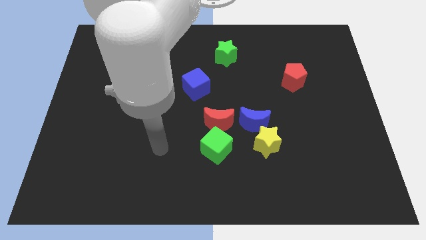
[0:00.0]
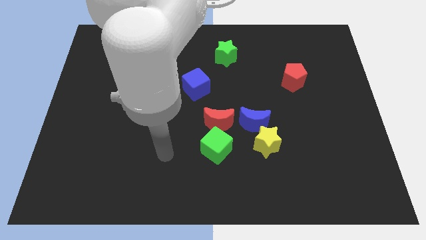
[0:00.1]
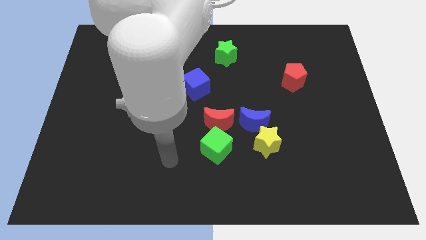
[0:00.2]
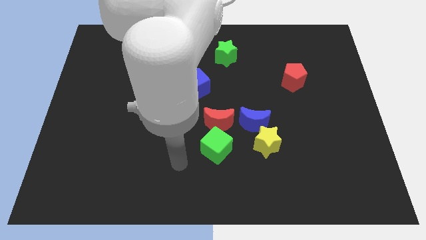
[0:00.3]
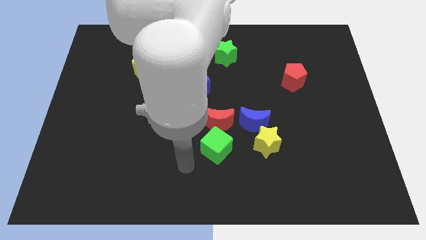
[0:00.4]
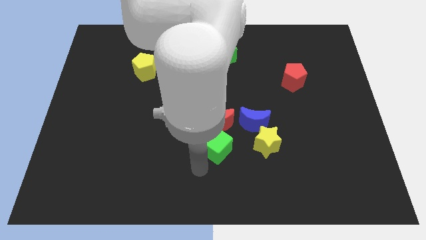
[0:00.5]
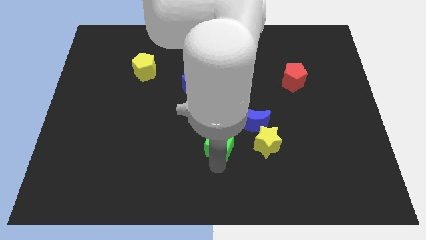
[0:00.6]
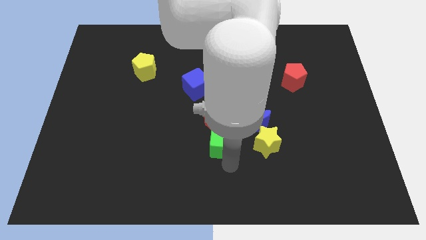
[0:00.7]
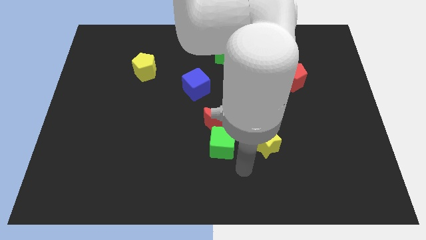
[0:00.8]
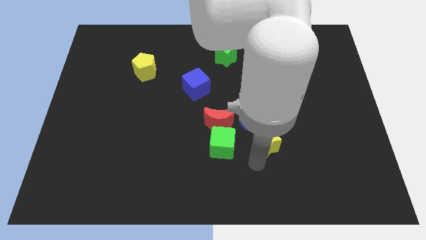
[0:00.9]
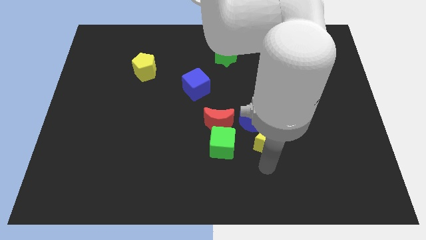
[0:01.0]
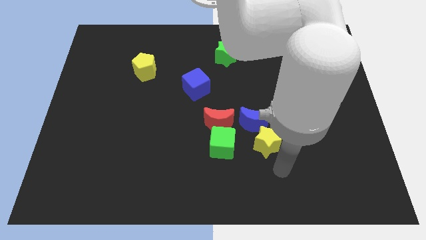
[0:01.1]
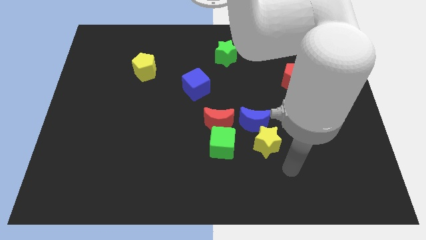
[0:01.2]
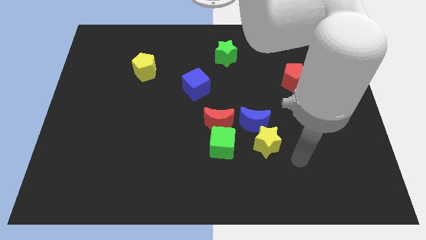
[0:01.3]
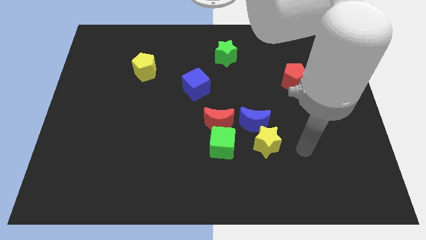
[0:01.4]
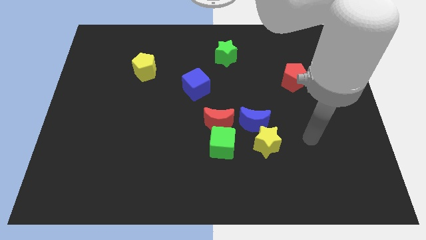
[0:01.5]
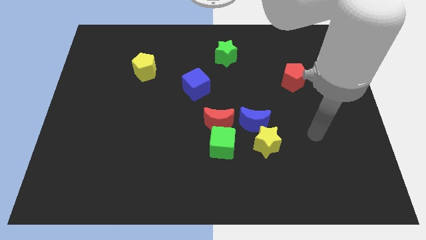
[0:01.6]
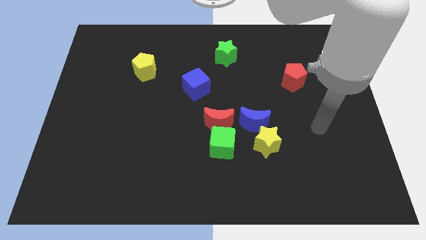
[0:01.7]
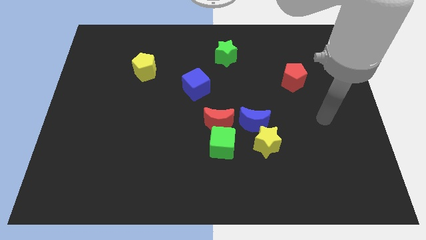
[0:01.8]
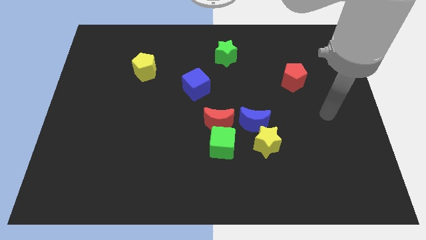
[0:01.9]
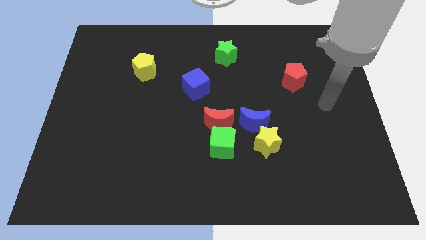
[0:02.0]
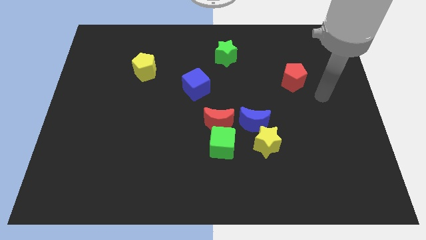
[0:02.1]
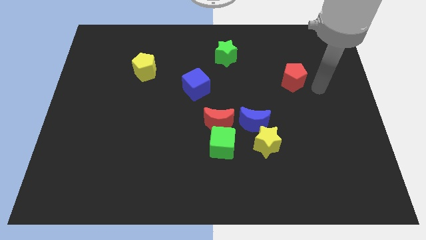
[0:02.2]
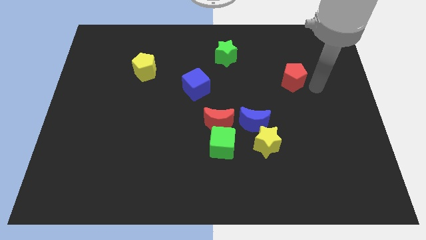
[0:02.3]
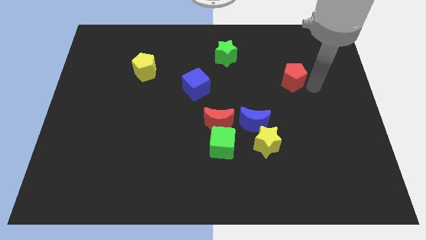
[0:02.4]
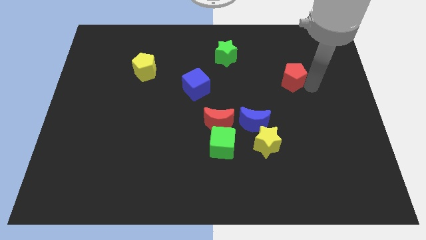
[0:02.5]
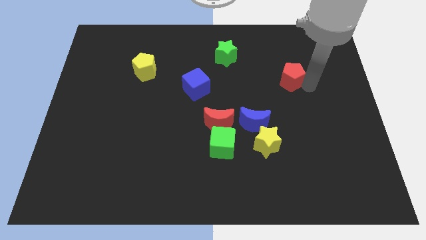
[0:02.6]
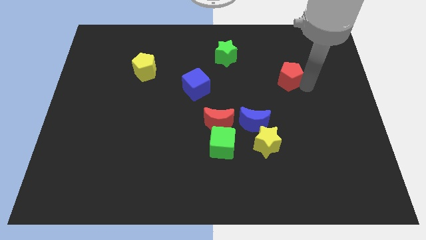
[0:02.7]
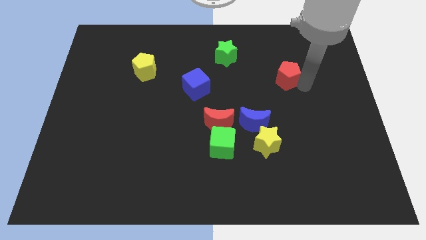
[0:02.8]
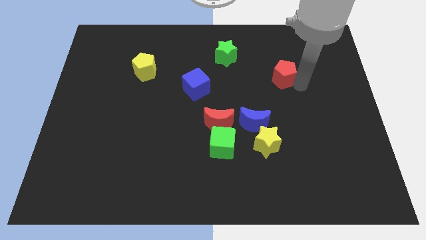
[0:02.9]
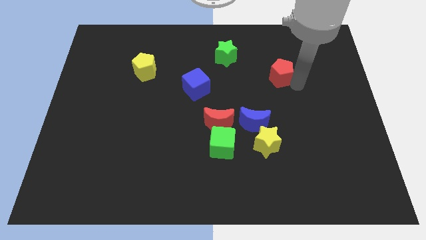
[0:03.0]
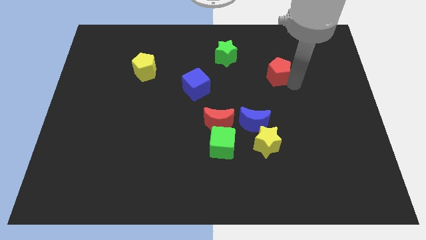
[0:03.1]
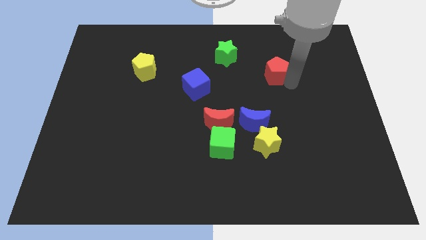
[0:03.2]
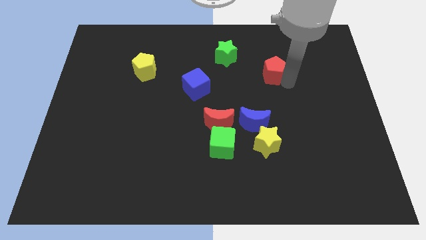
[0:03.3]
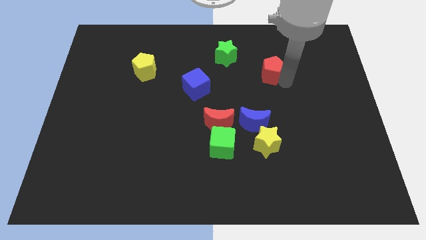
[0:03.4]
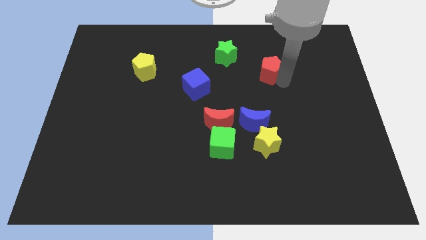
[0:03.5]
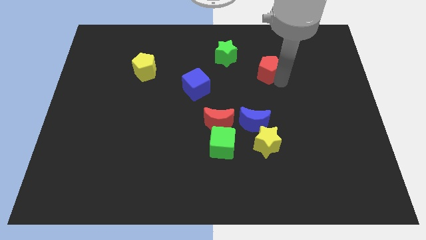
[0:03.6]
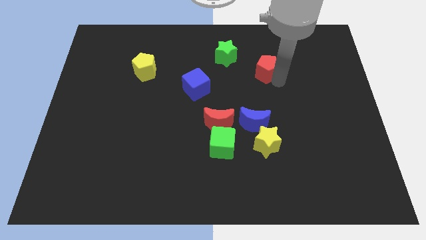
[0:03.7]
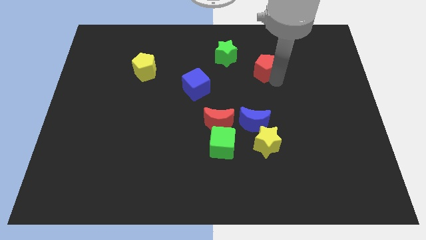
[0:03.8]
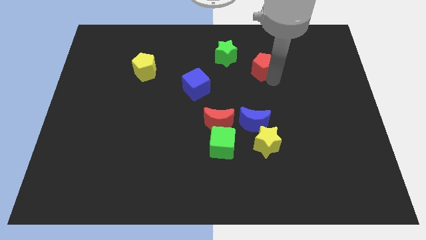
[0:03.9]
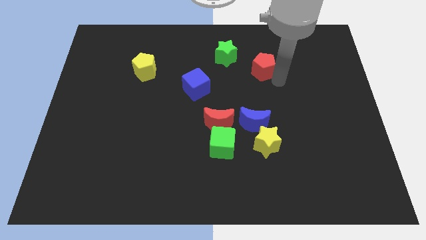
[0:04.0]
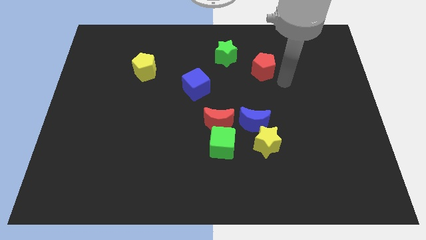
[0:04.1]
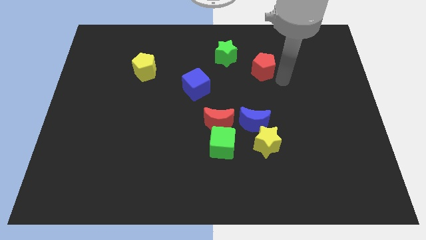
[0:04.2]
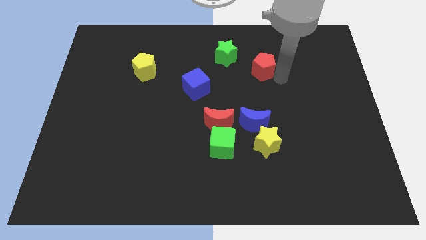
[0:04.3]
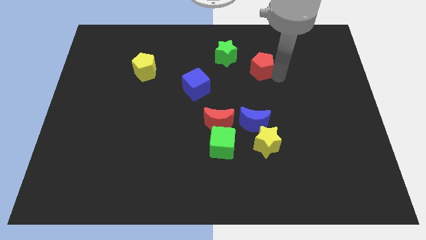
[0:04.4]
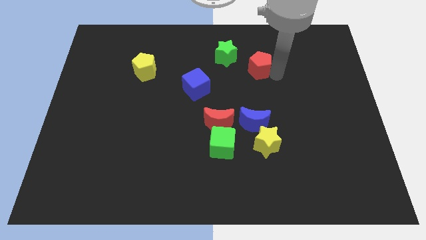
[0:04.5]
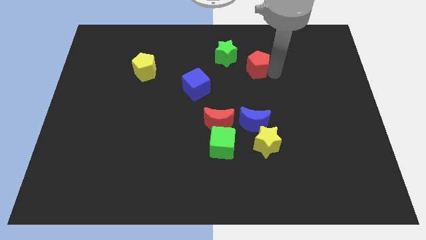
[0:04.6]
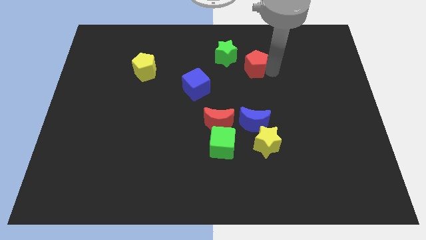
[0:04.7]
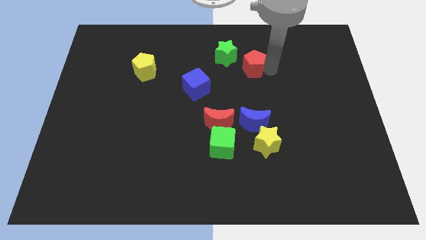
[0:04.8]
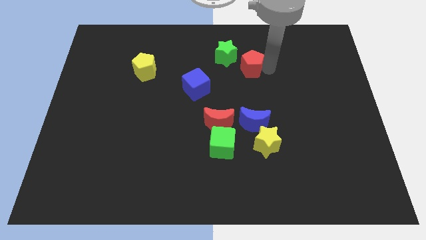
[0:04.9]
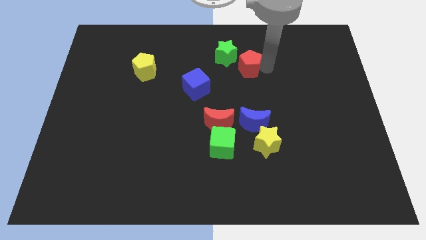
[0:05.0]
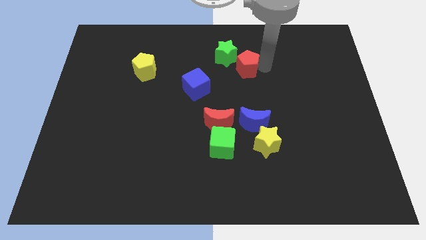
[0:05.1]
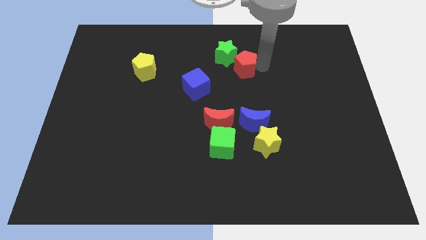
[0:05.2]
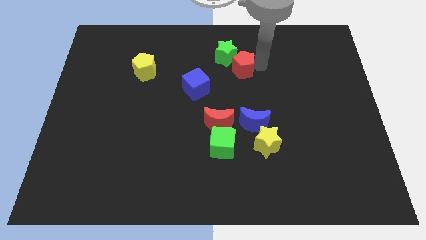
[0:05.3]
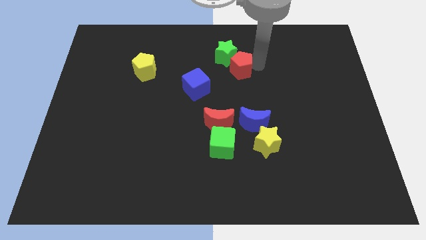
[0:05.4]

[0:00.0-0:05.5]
move the red pentagon close to the green star

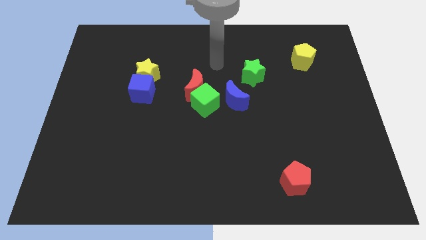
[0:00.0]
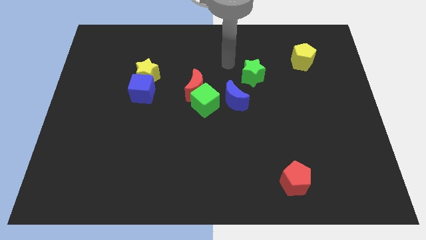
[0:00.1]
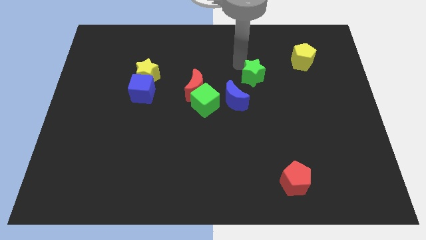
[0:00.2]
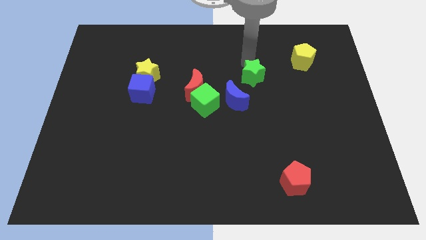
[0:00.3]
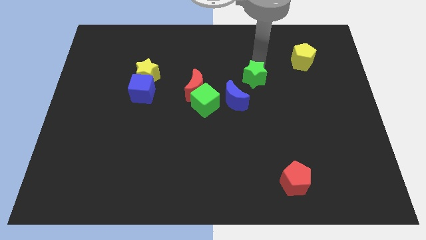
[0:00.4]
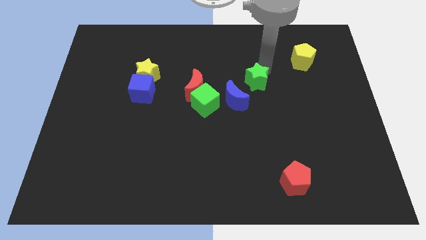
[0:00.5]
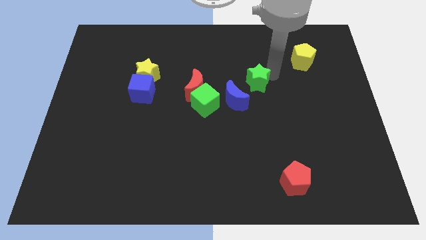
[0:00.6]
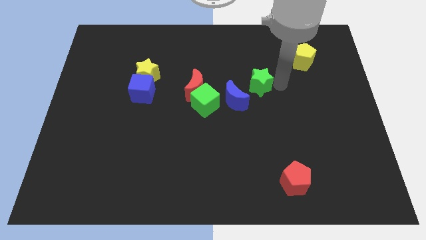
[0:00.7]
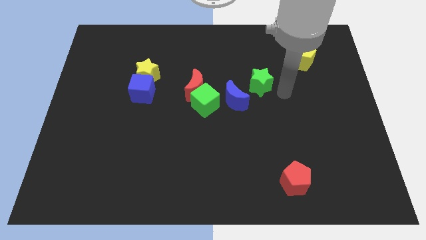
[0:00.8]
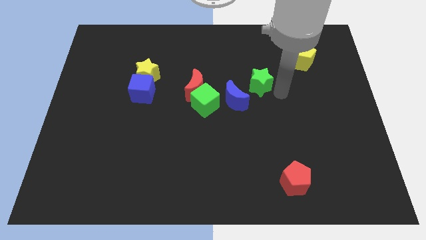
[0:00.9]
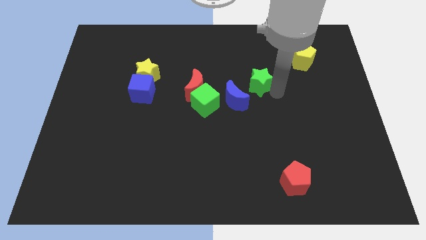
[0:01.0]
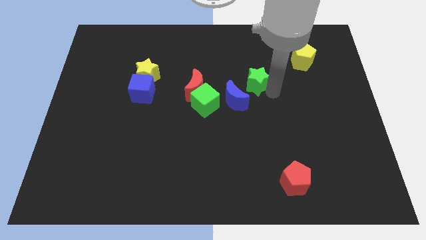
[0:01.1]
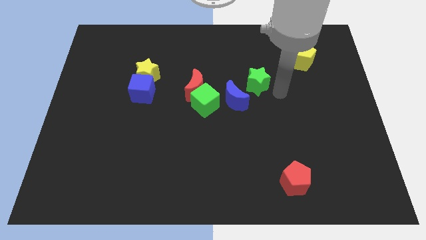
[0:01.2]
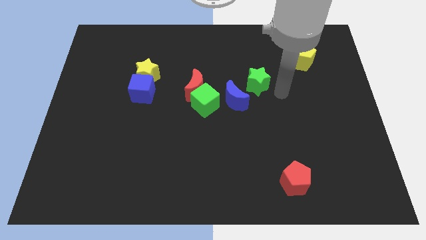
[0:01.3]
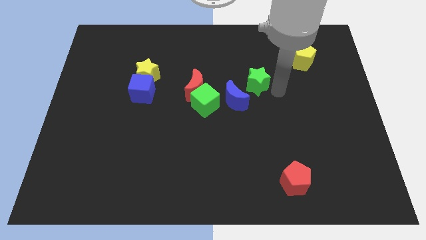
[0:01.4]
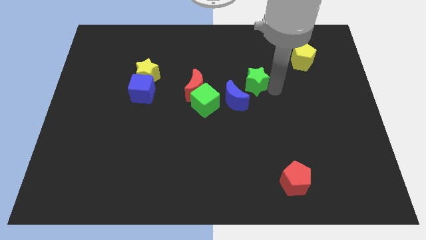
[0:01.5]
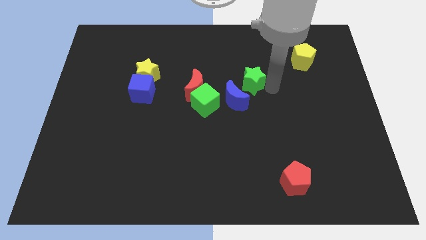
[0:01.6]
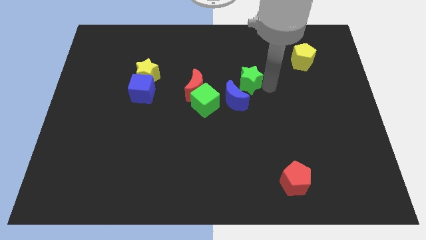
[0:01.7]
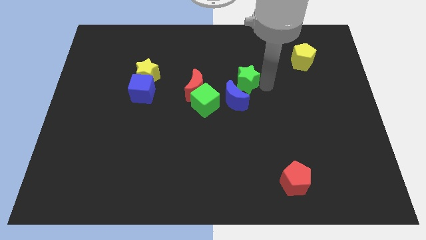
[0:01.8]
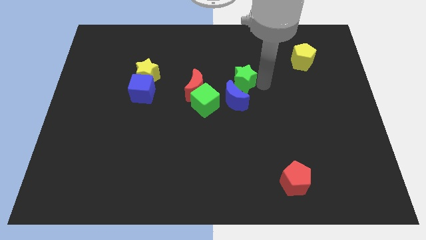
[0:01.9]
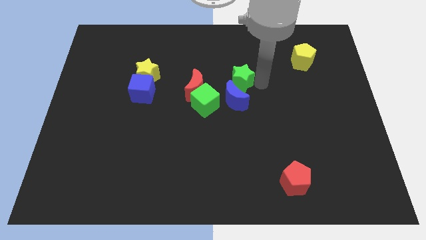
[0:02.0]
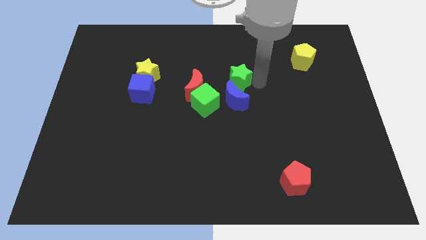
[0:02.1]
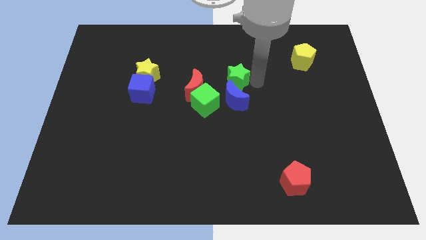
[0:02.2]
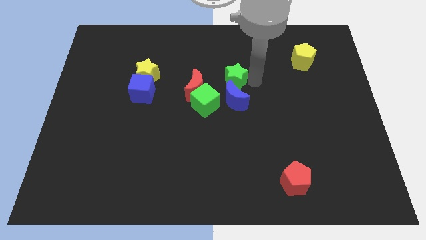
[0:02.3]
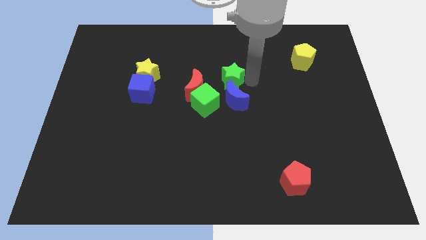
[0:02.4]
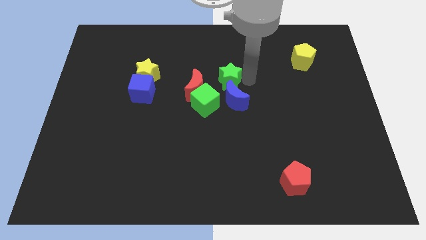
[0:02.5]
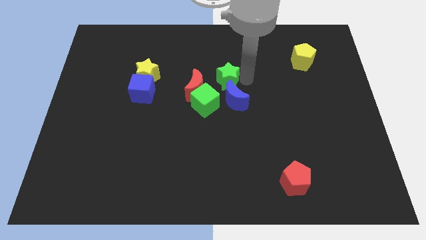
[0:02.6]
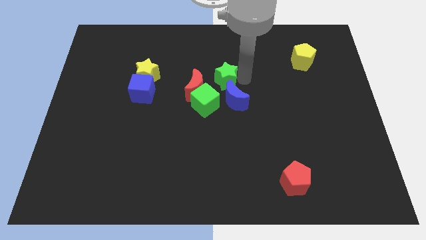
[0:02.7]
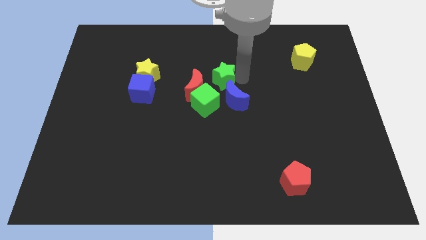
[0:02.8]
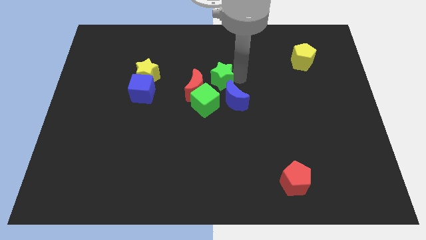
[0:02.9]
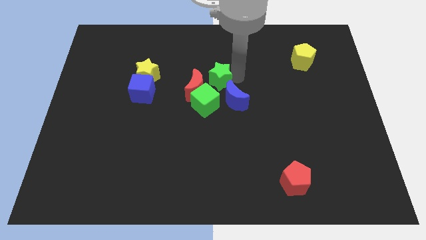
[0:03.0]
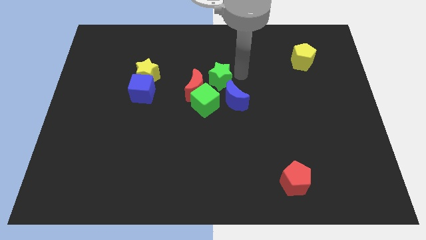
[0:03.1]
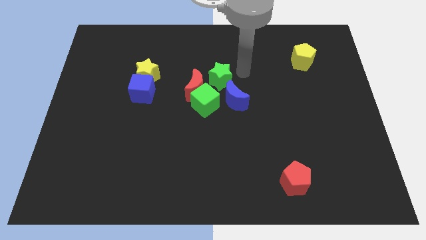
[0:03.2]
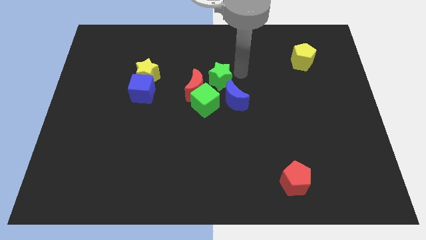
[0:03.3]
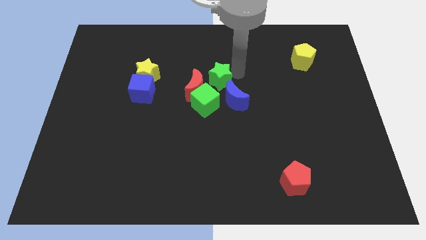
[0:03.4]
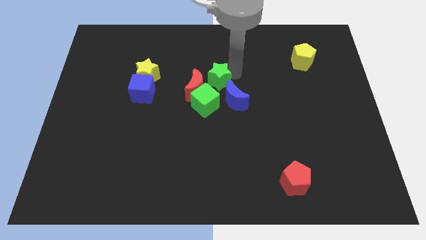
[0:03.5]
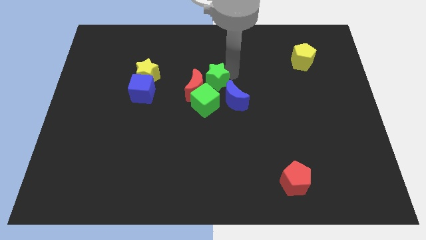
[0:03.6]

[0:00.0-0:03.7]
push the green star to the red moon
